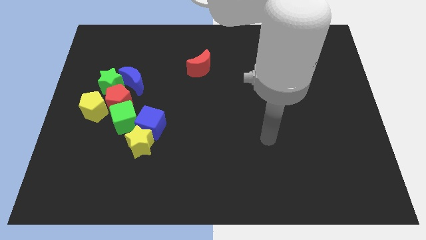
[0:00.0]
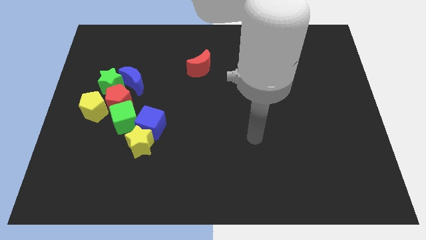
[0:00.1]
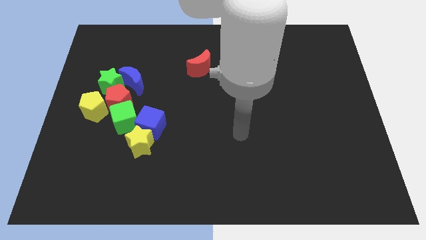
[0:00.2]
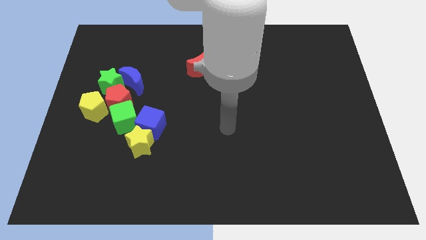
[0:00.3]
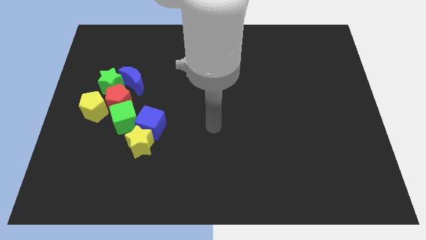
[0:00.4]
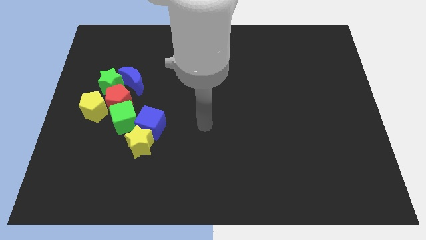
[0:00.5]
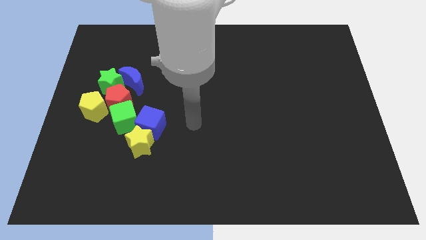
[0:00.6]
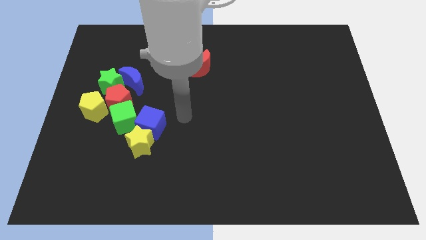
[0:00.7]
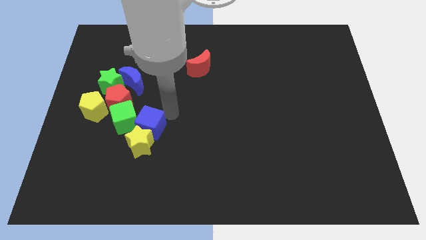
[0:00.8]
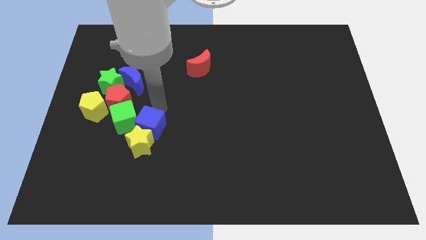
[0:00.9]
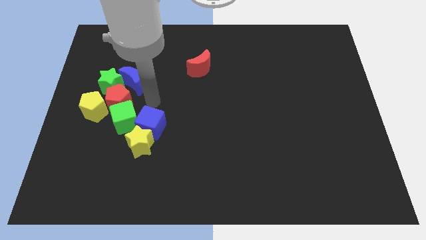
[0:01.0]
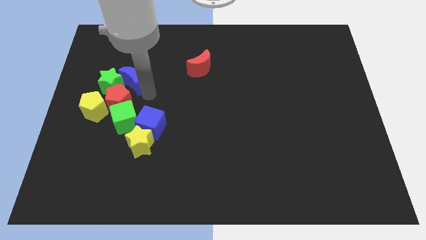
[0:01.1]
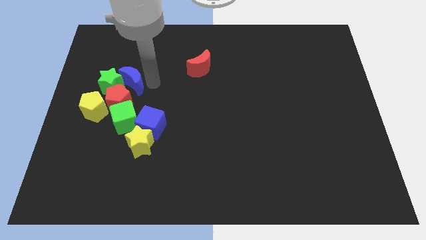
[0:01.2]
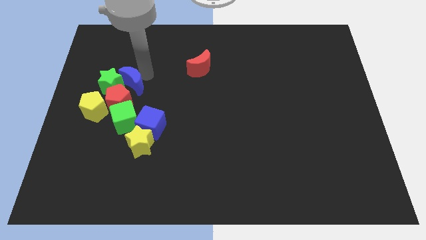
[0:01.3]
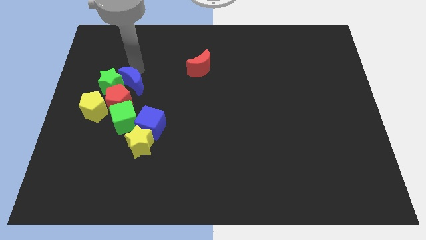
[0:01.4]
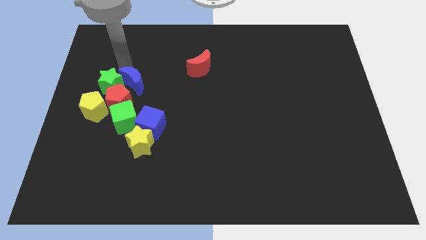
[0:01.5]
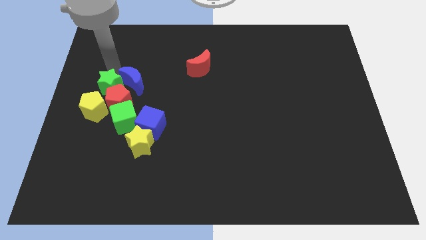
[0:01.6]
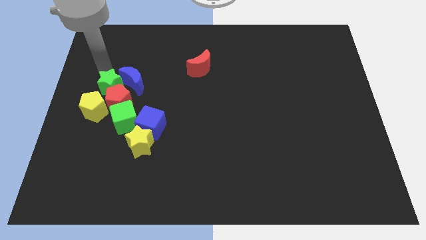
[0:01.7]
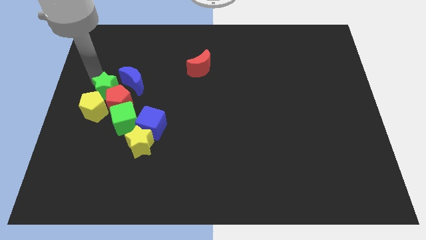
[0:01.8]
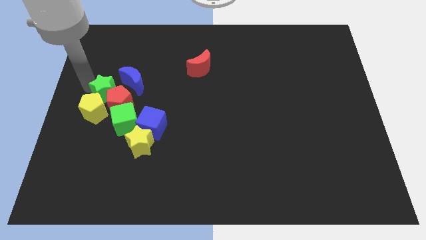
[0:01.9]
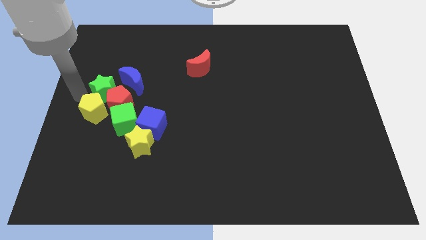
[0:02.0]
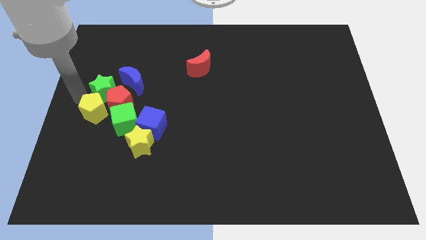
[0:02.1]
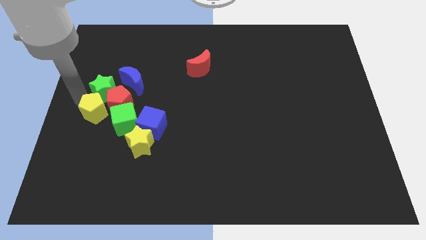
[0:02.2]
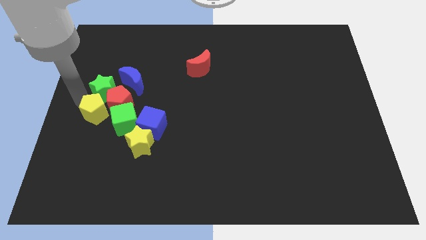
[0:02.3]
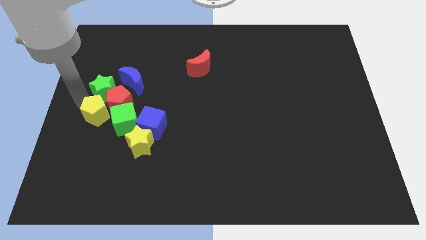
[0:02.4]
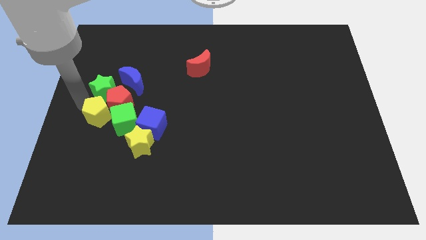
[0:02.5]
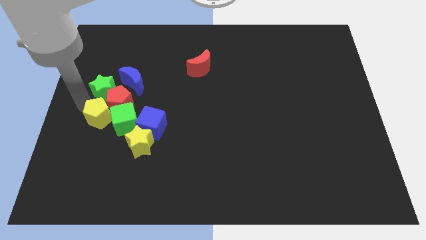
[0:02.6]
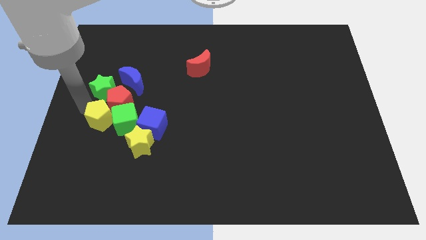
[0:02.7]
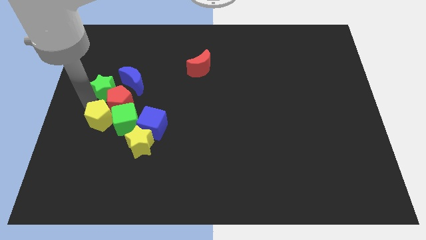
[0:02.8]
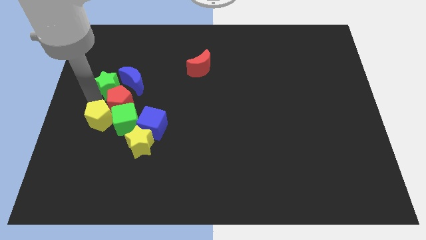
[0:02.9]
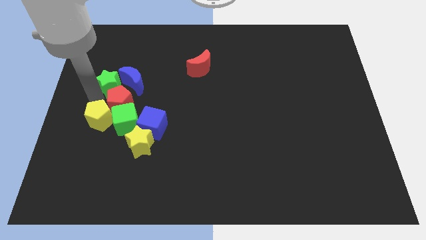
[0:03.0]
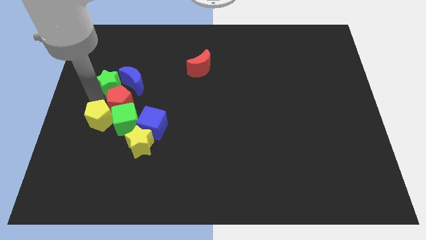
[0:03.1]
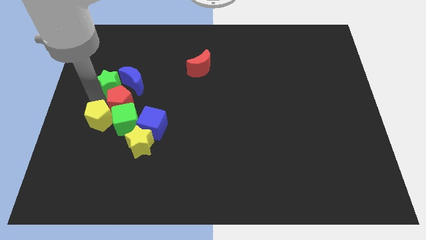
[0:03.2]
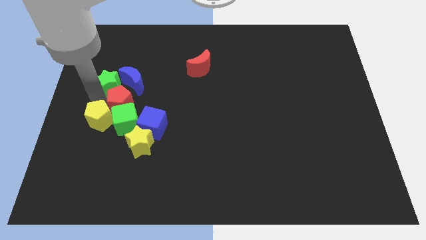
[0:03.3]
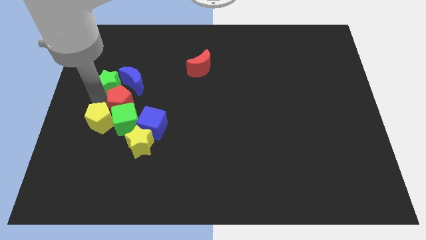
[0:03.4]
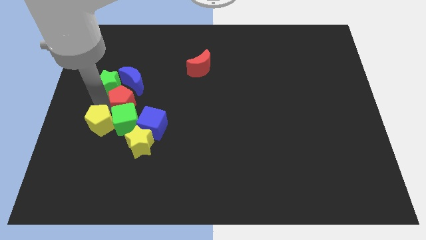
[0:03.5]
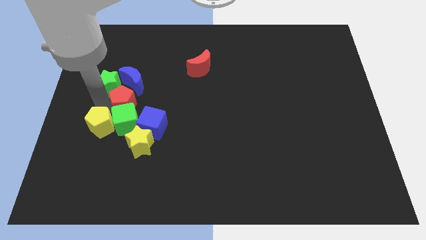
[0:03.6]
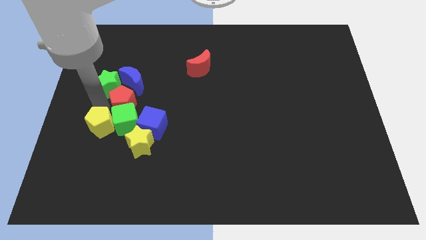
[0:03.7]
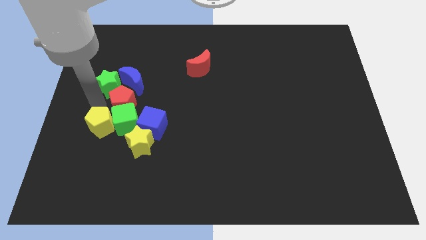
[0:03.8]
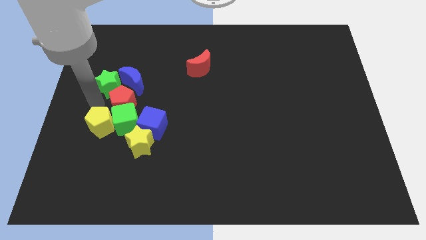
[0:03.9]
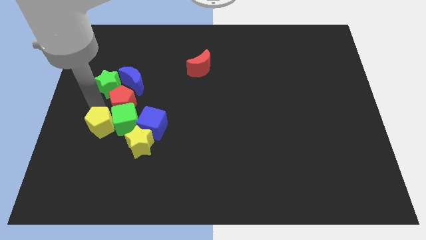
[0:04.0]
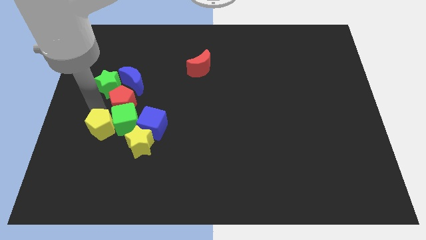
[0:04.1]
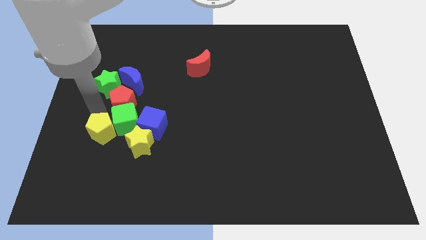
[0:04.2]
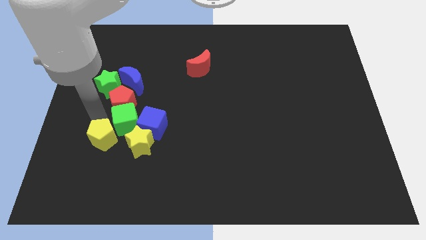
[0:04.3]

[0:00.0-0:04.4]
slide the yellow pentagon somewhat diagonally down and right

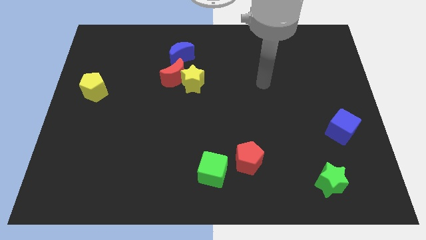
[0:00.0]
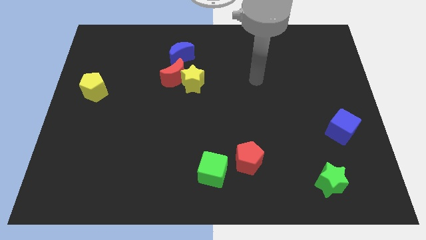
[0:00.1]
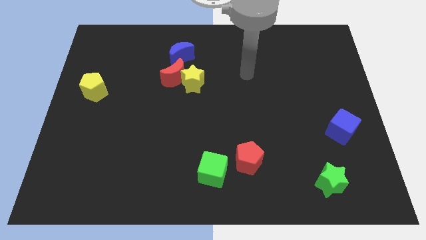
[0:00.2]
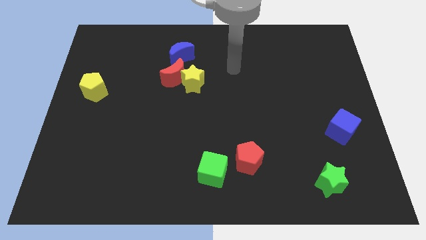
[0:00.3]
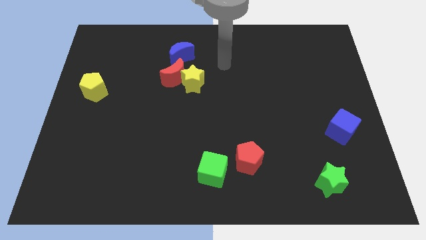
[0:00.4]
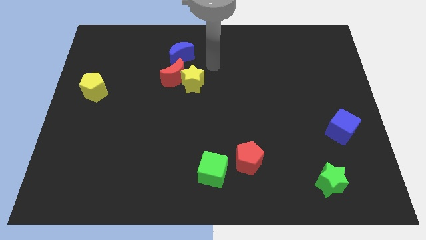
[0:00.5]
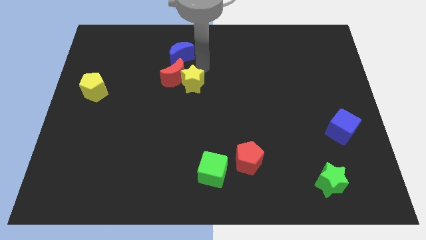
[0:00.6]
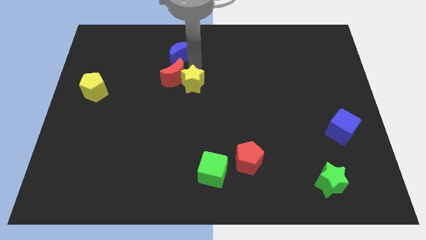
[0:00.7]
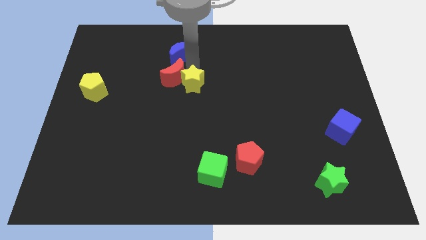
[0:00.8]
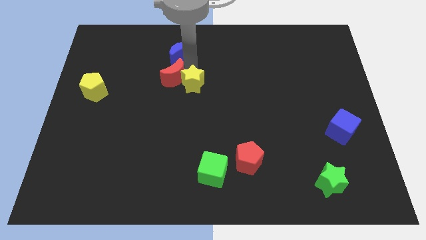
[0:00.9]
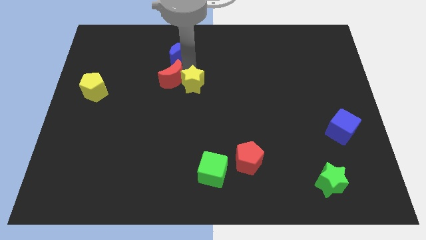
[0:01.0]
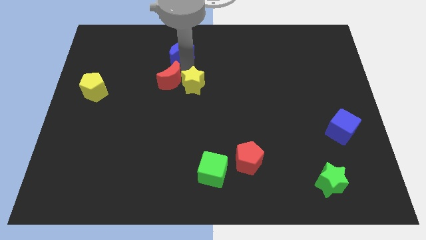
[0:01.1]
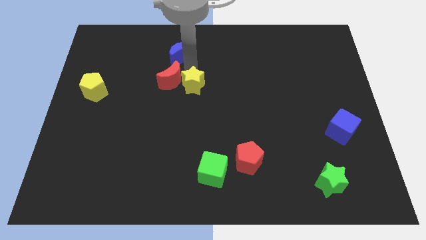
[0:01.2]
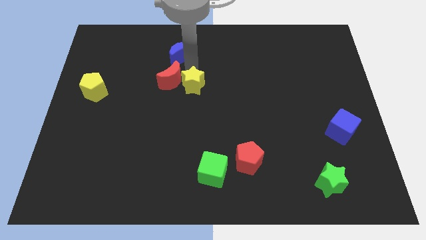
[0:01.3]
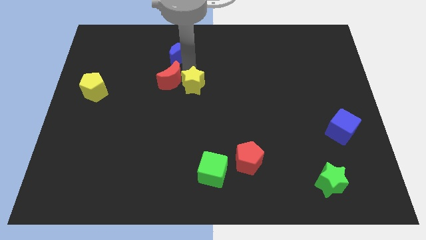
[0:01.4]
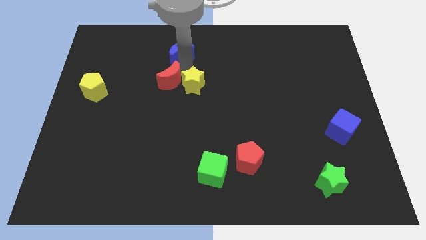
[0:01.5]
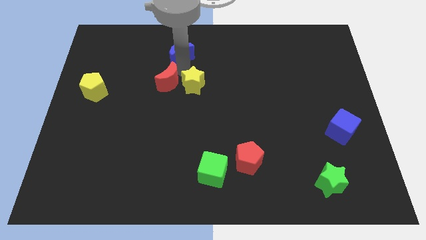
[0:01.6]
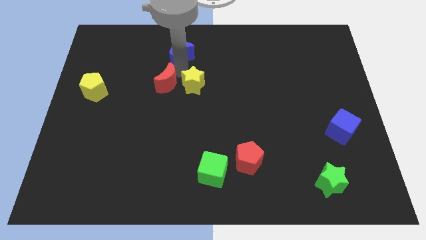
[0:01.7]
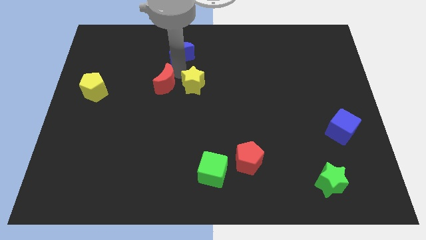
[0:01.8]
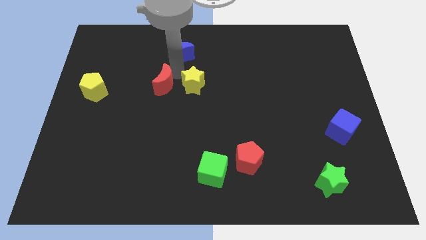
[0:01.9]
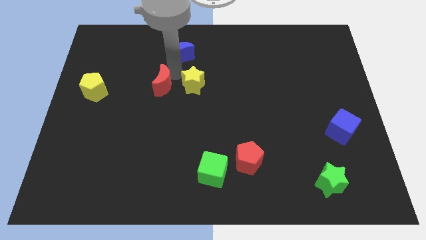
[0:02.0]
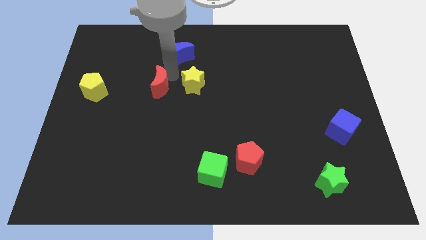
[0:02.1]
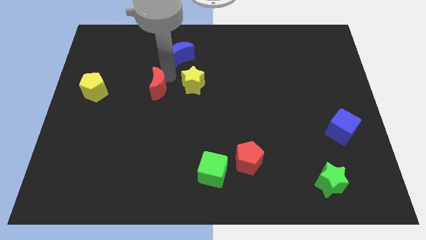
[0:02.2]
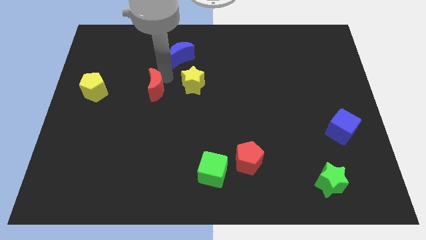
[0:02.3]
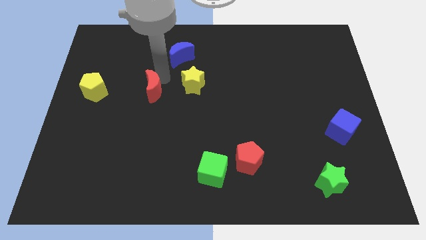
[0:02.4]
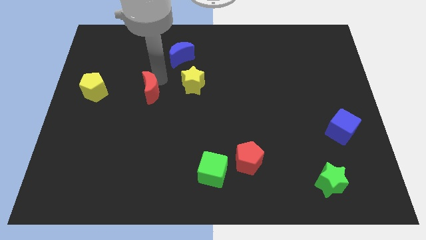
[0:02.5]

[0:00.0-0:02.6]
move the red moon down and left slightly

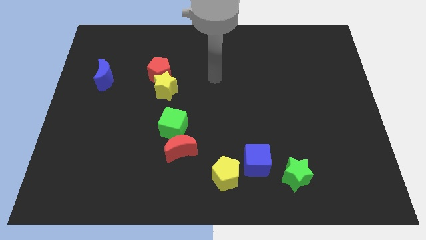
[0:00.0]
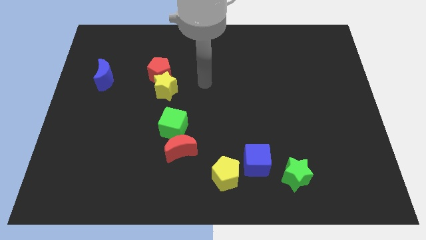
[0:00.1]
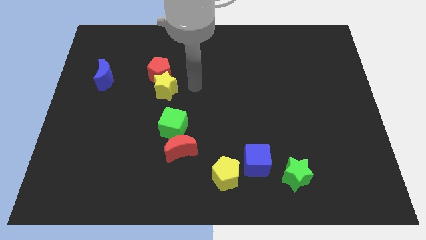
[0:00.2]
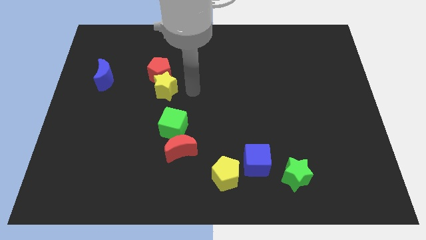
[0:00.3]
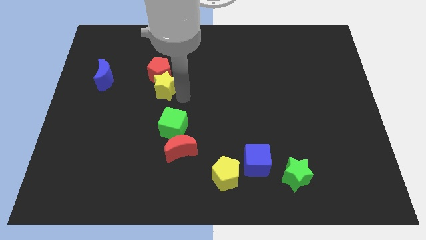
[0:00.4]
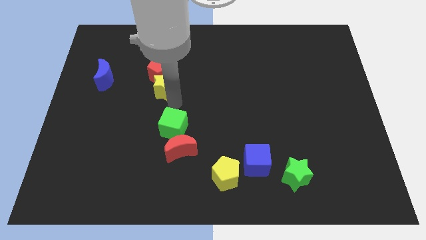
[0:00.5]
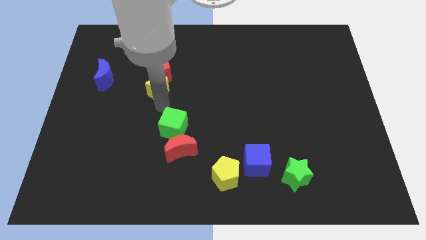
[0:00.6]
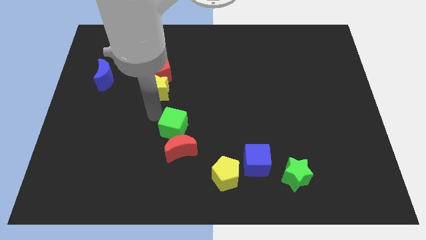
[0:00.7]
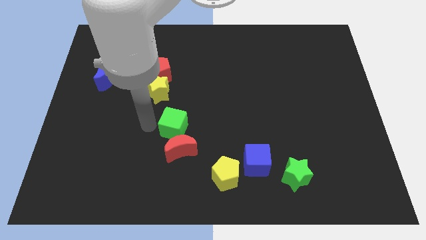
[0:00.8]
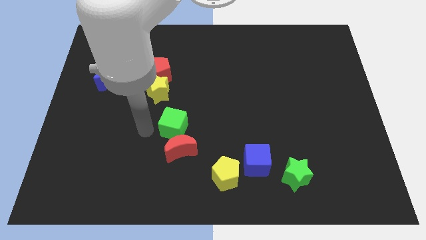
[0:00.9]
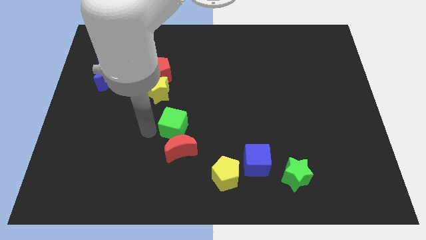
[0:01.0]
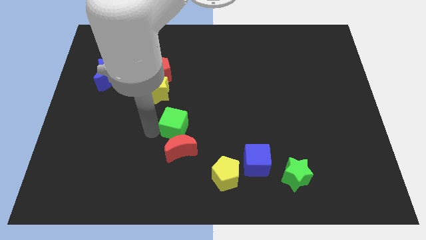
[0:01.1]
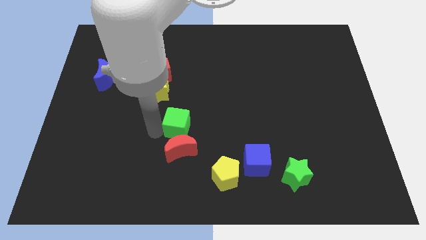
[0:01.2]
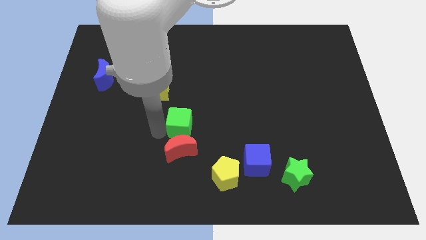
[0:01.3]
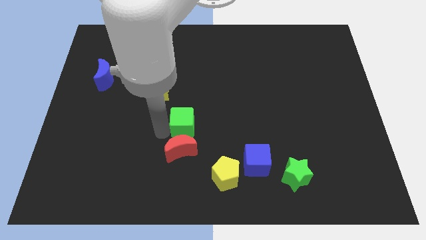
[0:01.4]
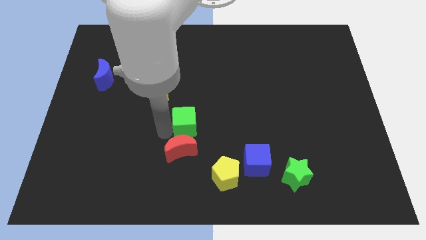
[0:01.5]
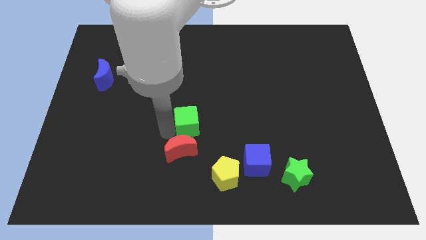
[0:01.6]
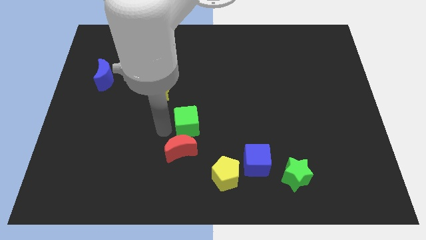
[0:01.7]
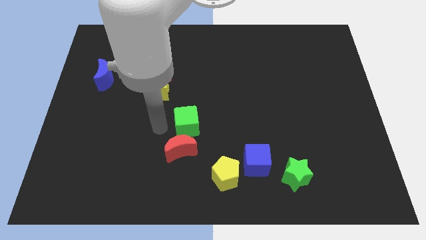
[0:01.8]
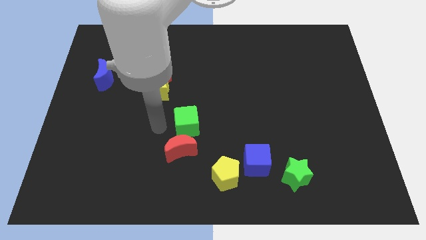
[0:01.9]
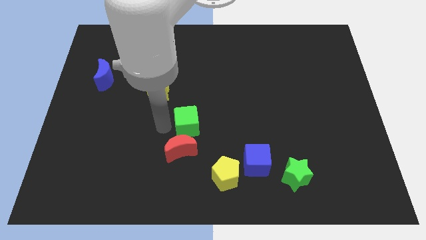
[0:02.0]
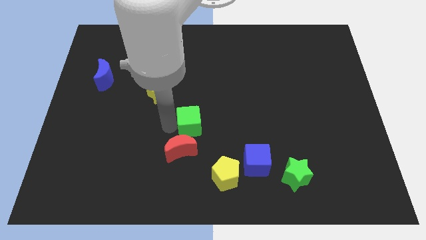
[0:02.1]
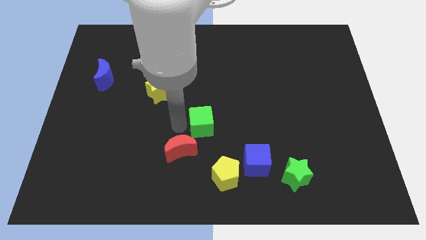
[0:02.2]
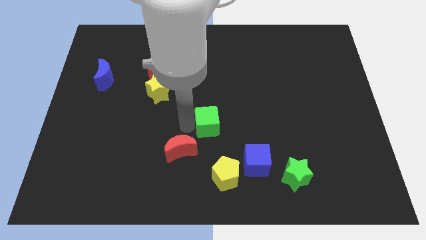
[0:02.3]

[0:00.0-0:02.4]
slightly slide the green cube right
